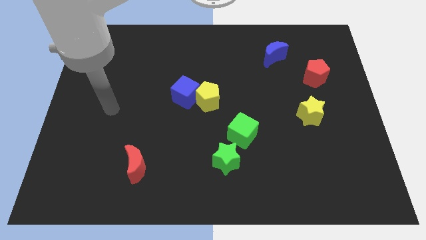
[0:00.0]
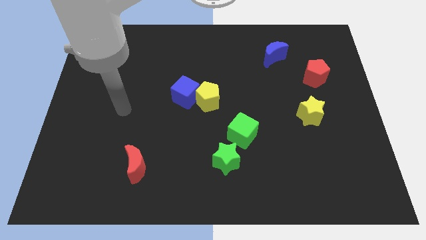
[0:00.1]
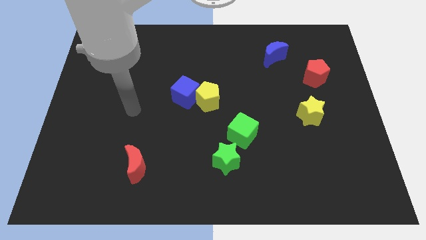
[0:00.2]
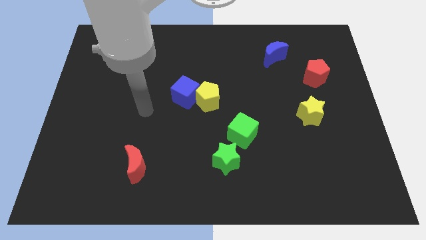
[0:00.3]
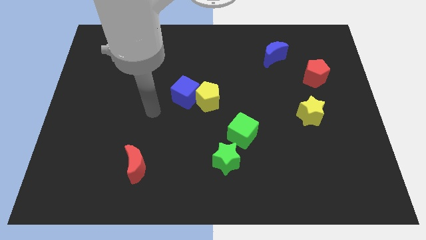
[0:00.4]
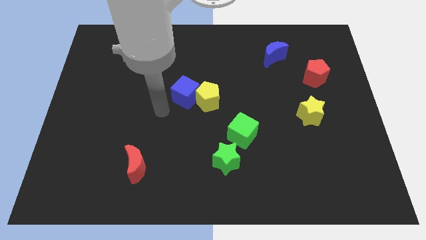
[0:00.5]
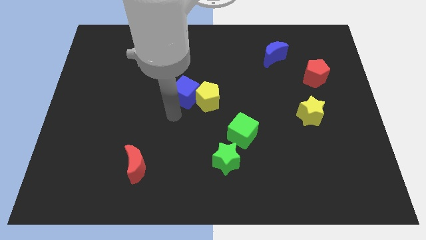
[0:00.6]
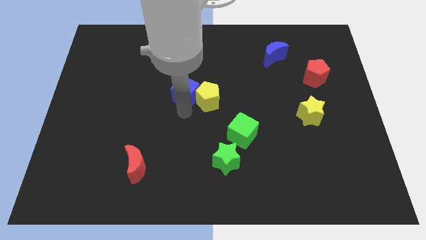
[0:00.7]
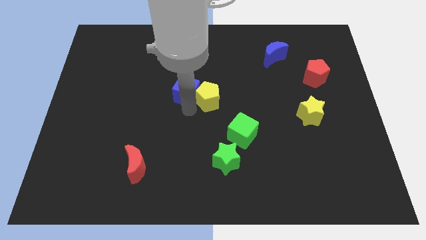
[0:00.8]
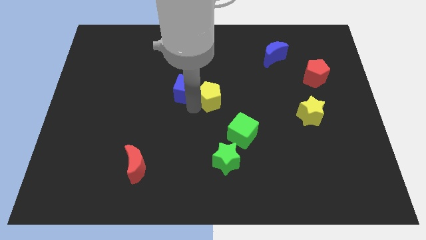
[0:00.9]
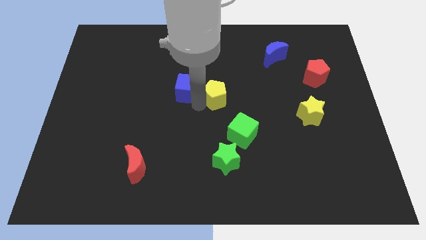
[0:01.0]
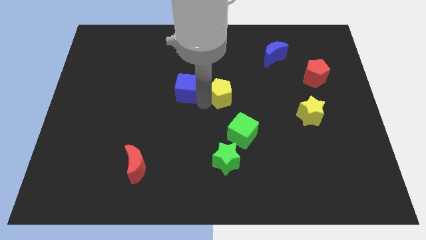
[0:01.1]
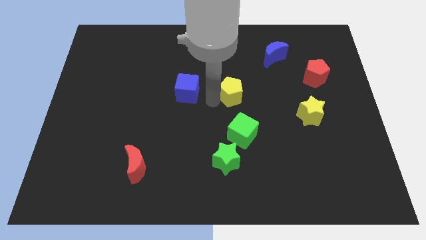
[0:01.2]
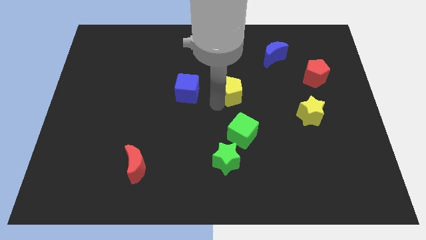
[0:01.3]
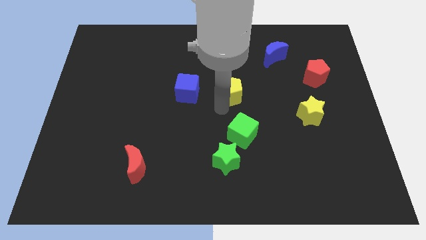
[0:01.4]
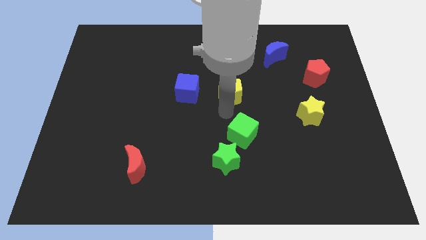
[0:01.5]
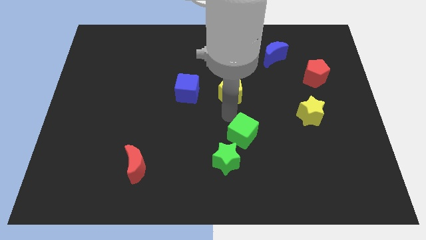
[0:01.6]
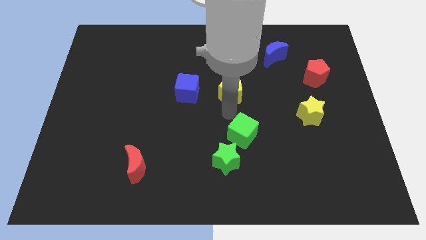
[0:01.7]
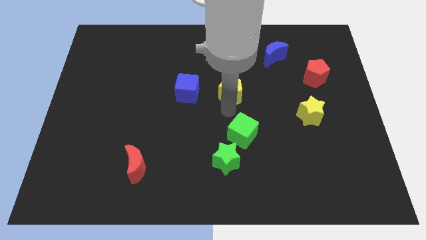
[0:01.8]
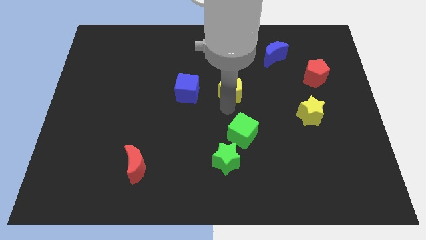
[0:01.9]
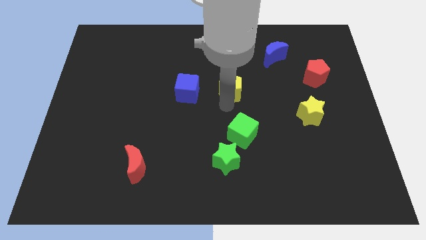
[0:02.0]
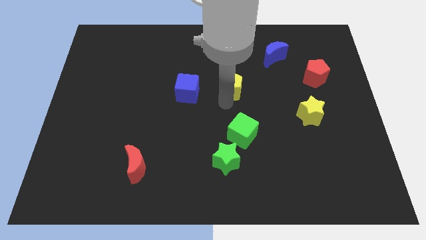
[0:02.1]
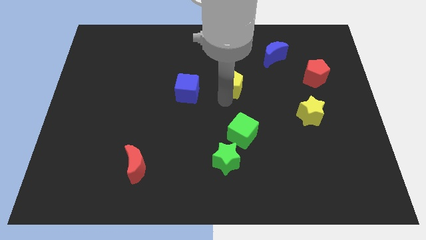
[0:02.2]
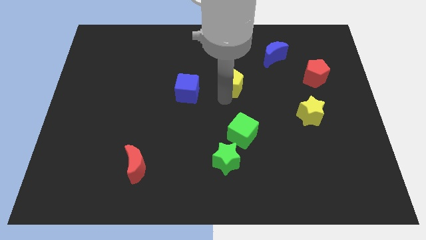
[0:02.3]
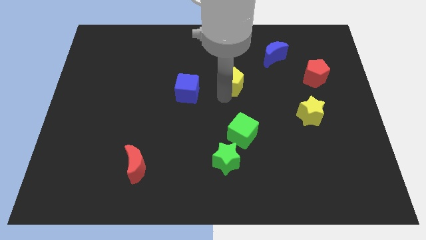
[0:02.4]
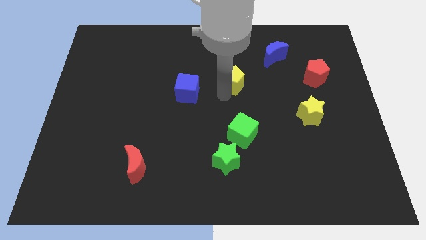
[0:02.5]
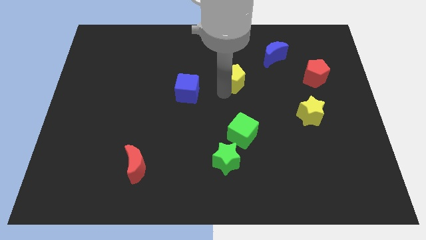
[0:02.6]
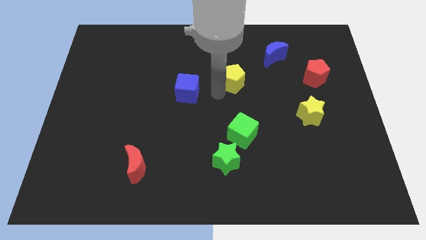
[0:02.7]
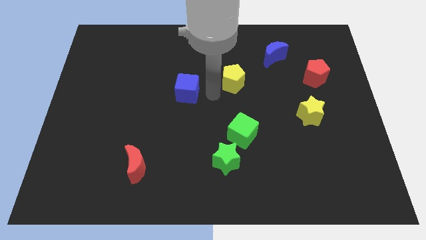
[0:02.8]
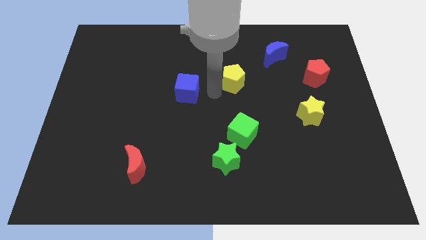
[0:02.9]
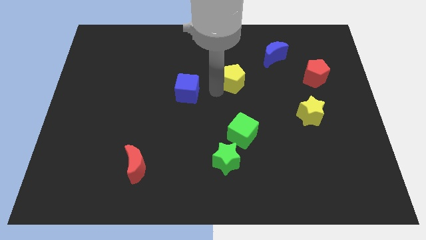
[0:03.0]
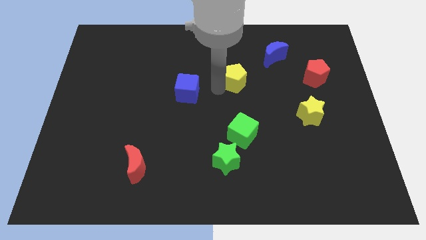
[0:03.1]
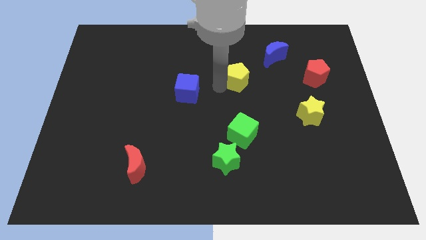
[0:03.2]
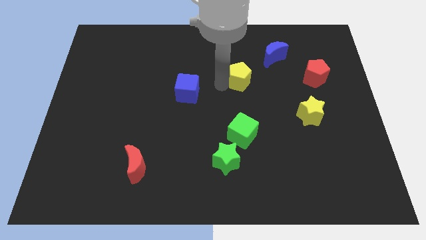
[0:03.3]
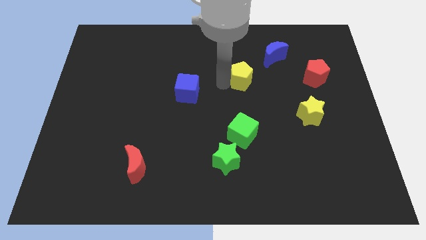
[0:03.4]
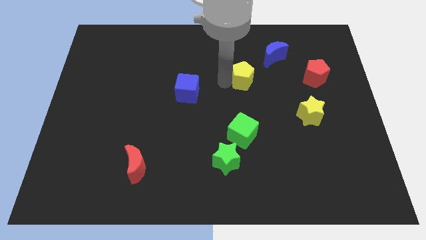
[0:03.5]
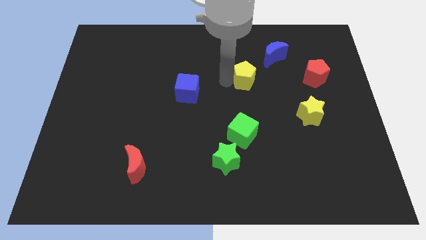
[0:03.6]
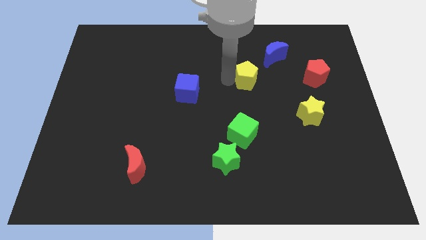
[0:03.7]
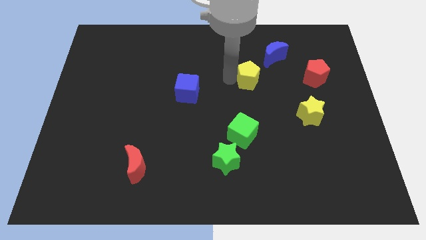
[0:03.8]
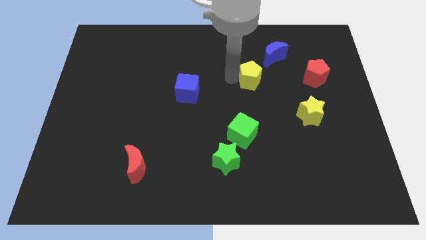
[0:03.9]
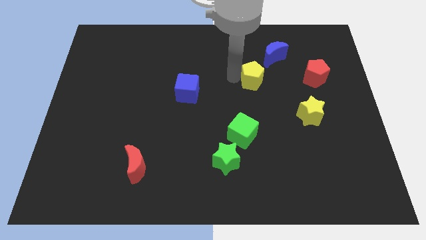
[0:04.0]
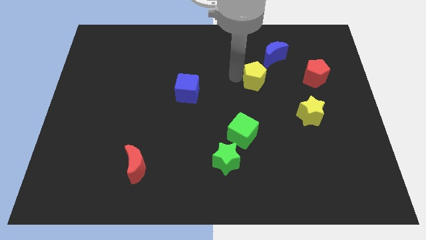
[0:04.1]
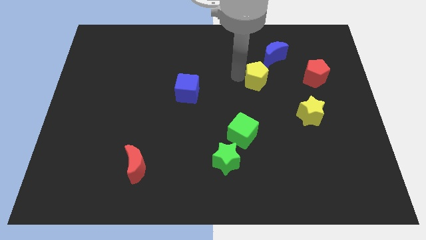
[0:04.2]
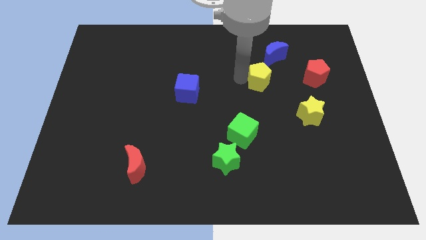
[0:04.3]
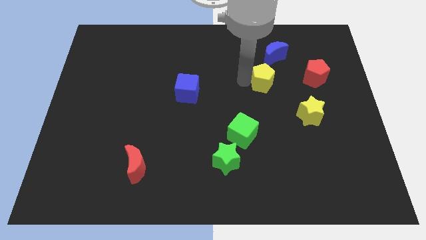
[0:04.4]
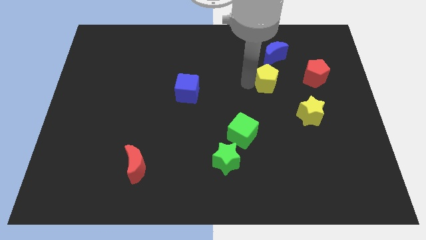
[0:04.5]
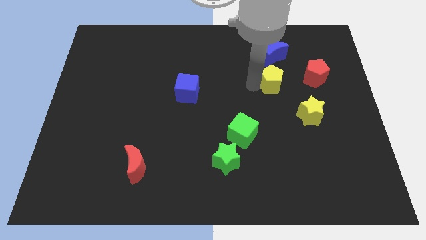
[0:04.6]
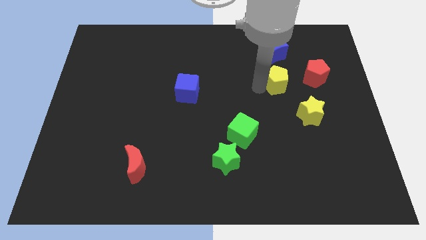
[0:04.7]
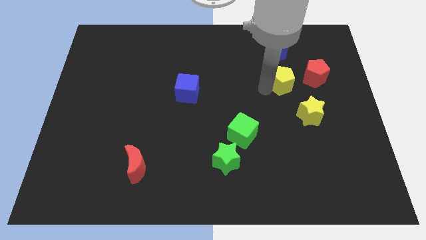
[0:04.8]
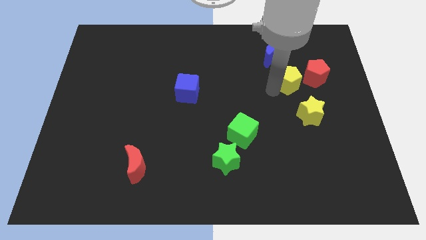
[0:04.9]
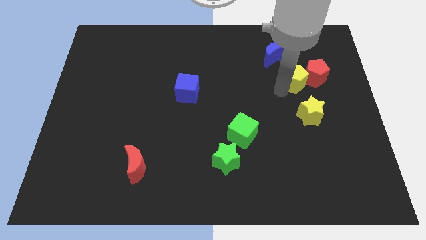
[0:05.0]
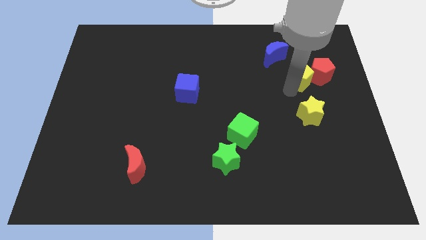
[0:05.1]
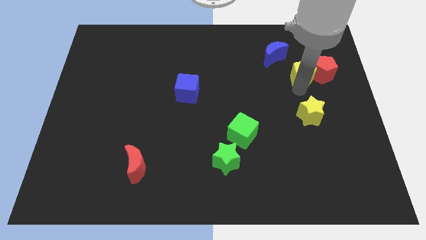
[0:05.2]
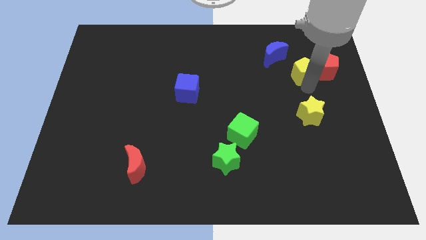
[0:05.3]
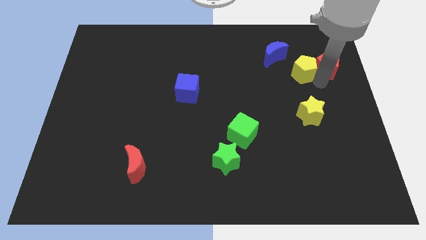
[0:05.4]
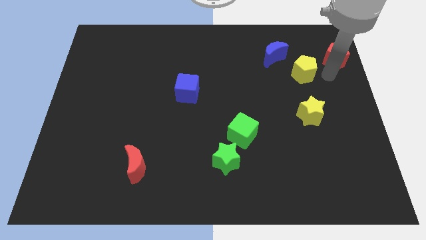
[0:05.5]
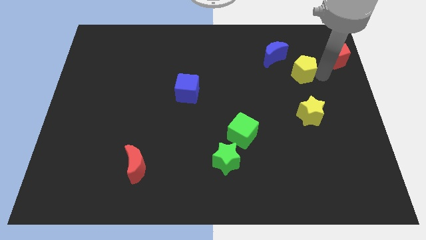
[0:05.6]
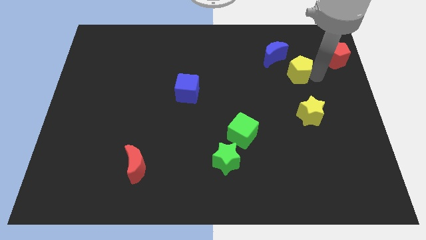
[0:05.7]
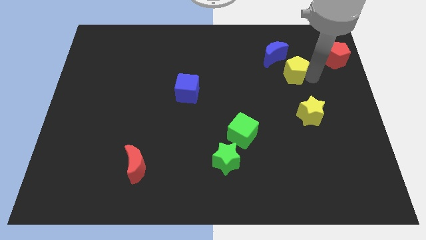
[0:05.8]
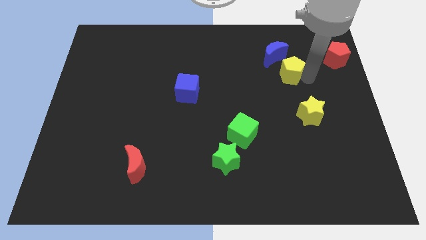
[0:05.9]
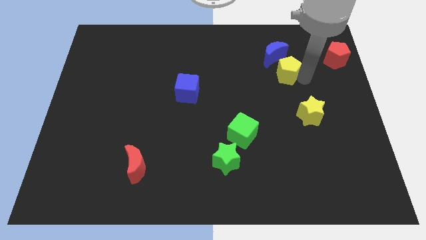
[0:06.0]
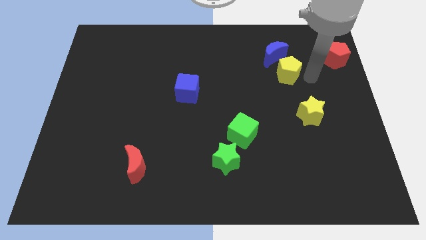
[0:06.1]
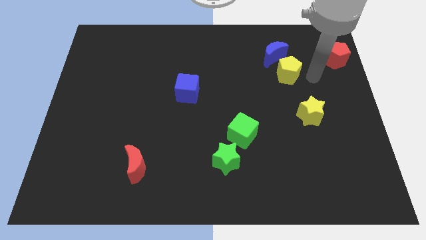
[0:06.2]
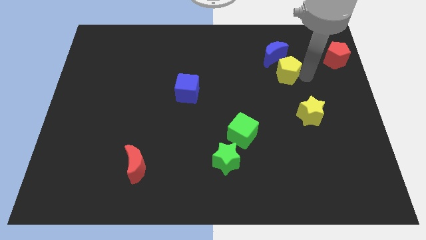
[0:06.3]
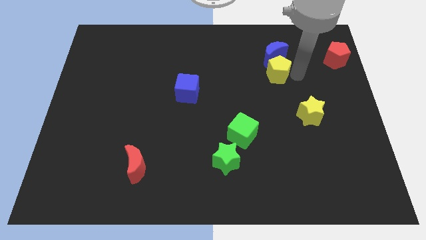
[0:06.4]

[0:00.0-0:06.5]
put the yellow pentagon towards the blue moon

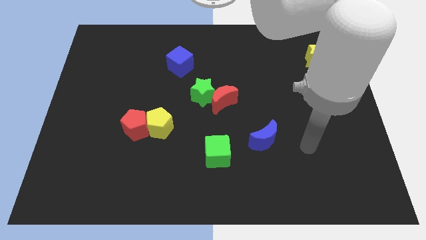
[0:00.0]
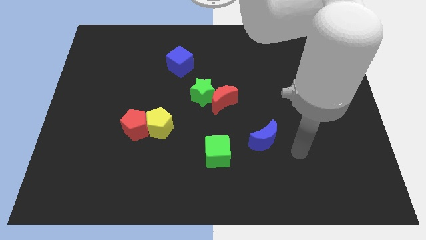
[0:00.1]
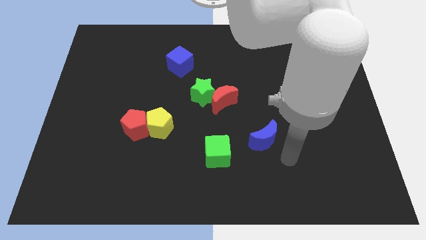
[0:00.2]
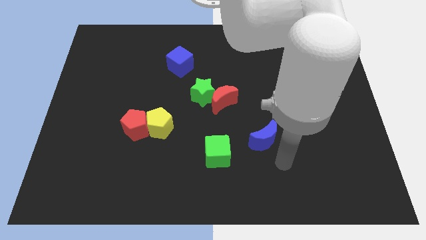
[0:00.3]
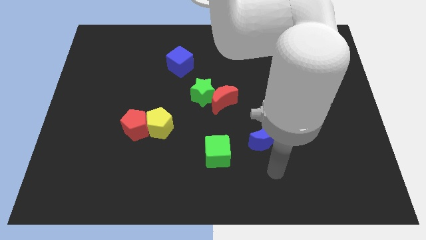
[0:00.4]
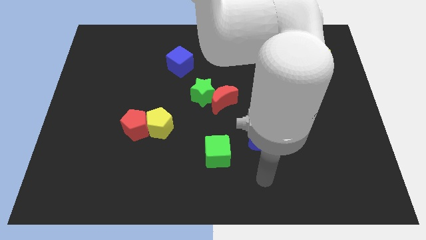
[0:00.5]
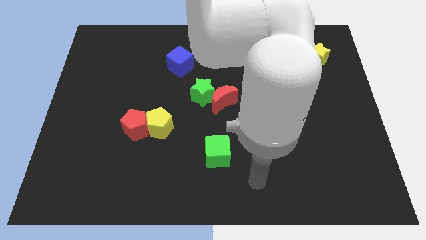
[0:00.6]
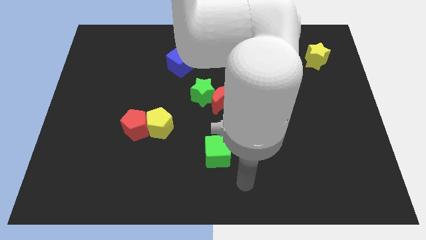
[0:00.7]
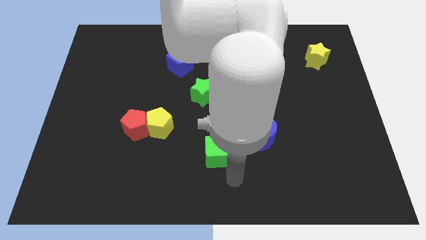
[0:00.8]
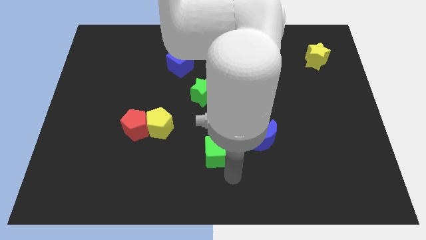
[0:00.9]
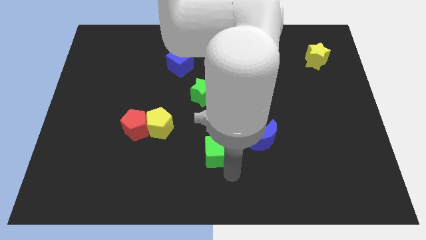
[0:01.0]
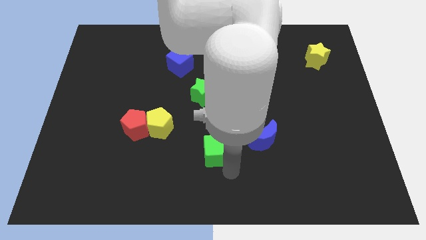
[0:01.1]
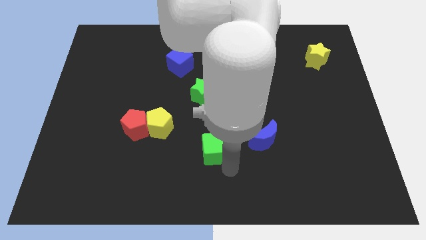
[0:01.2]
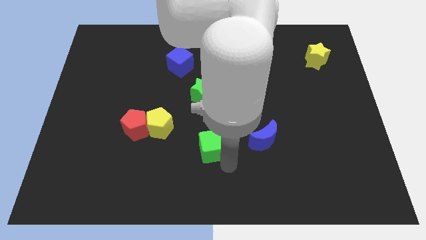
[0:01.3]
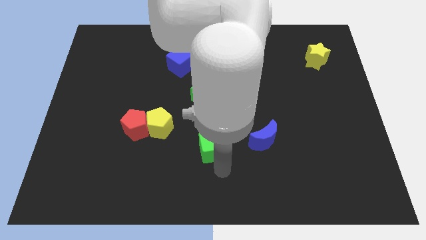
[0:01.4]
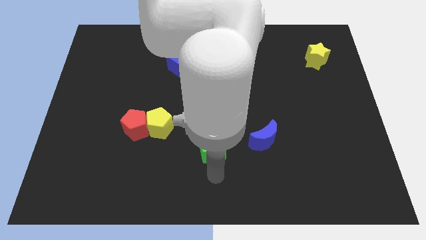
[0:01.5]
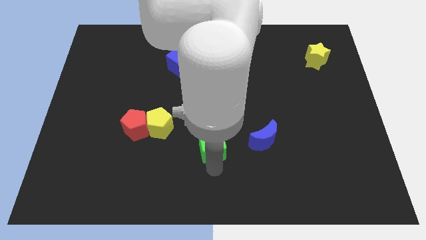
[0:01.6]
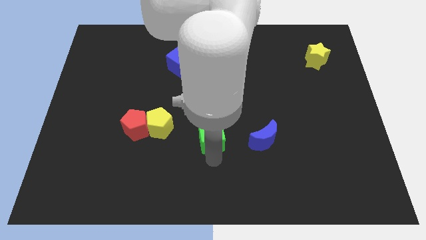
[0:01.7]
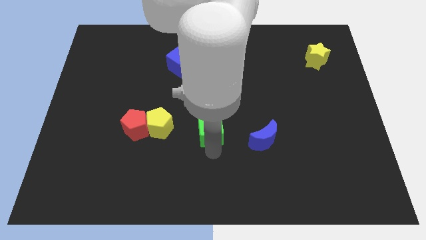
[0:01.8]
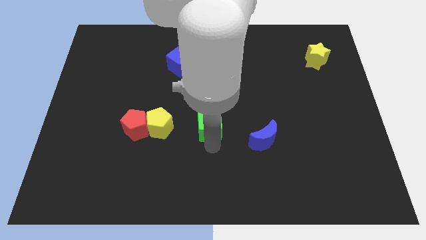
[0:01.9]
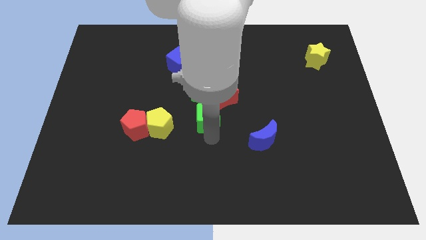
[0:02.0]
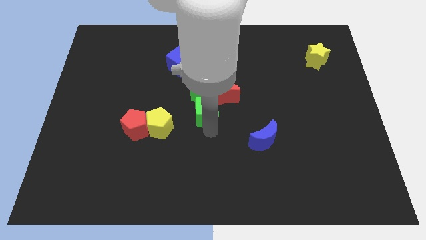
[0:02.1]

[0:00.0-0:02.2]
put the green cube close to the green star
